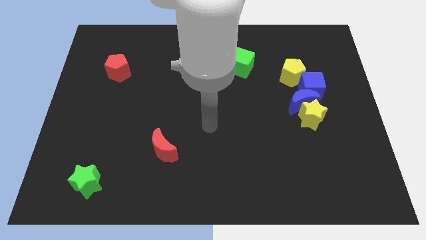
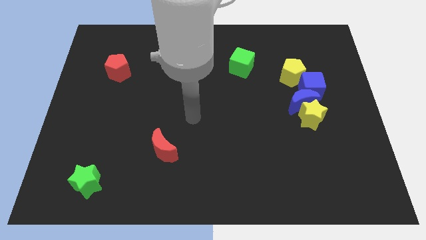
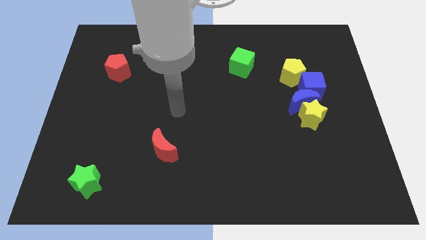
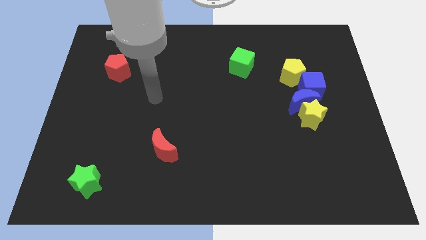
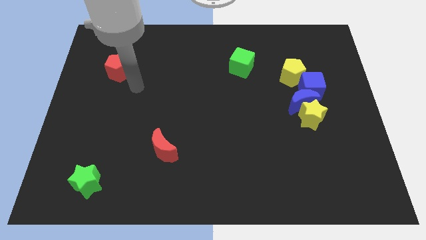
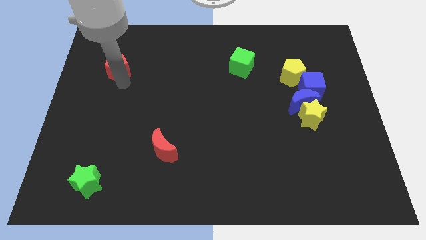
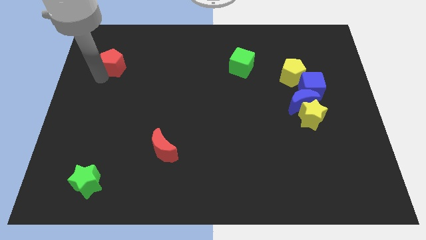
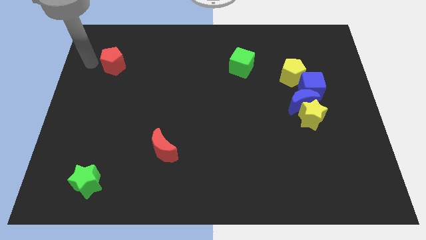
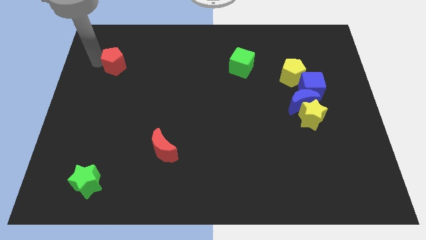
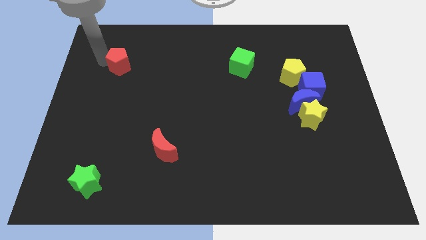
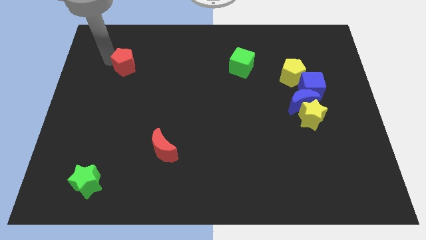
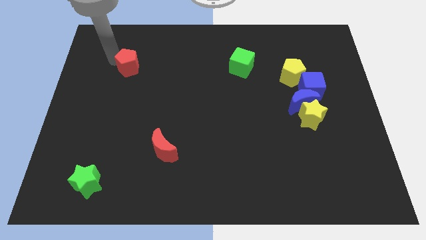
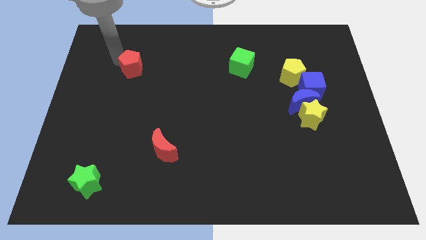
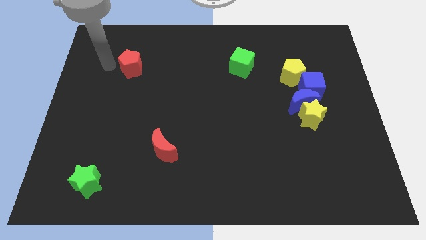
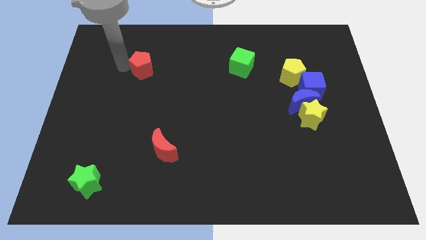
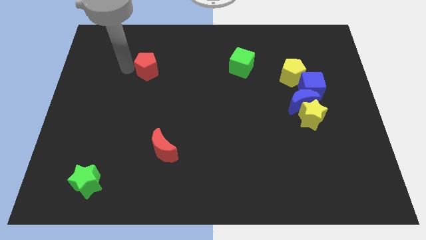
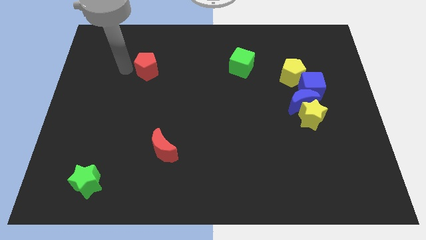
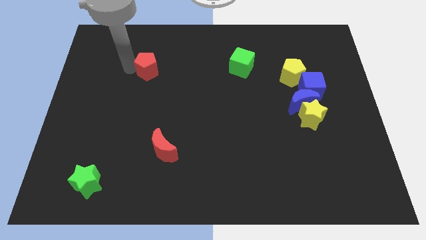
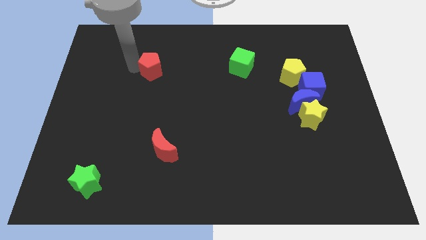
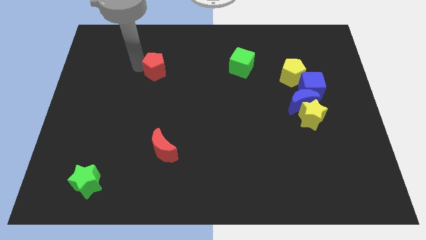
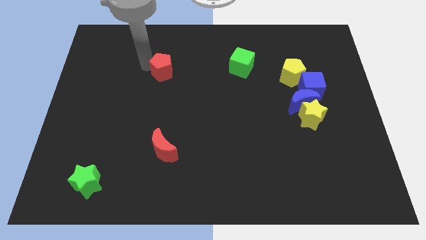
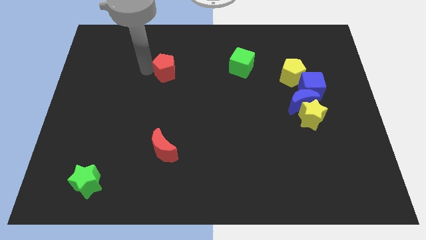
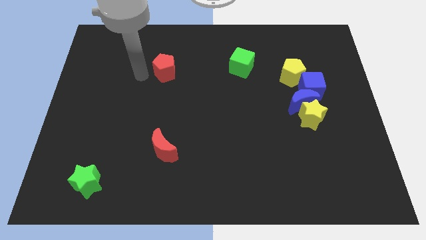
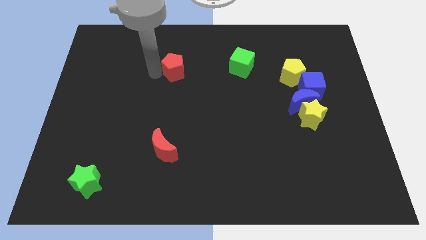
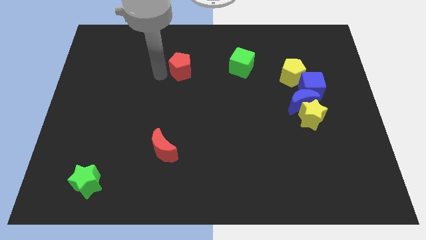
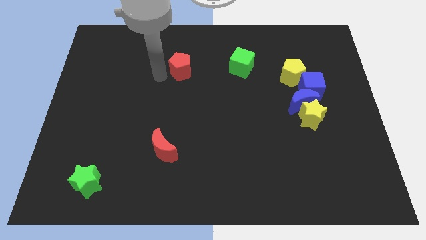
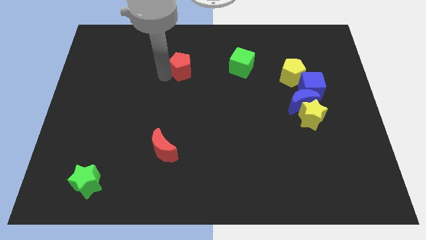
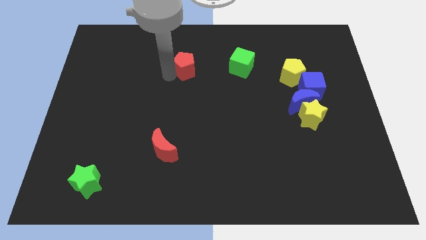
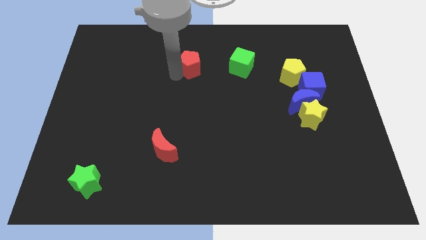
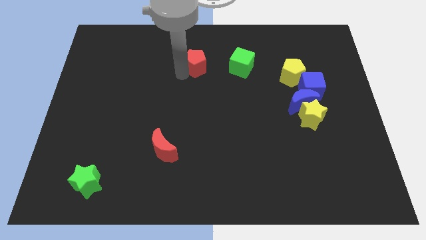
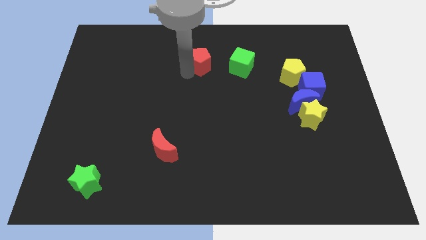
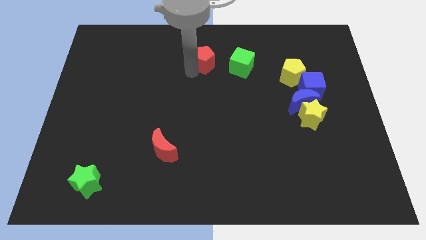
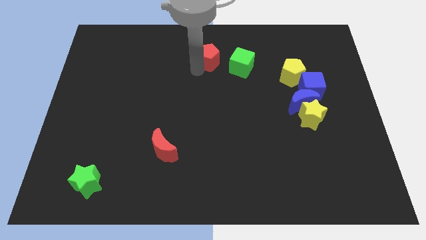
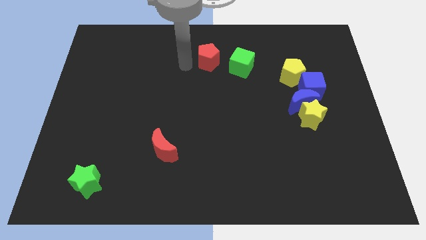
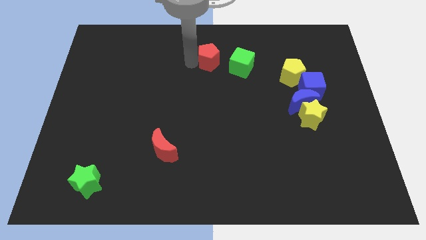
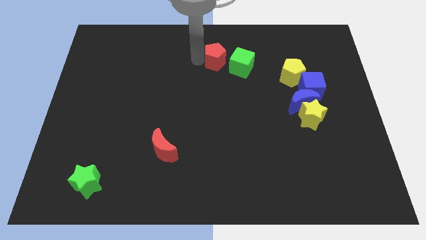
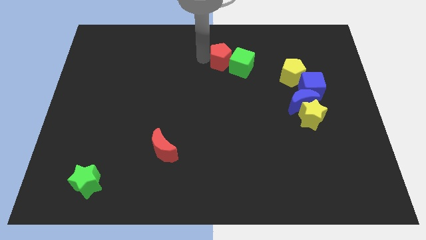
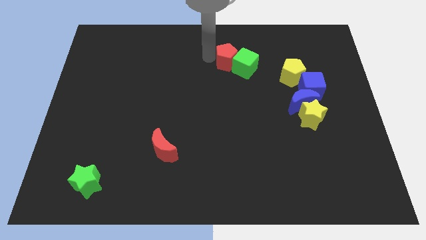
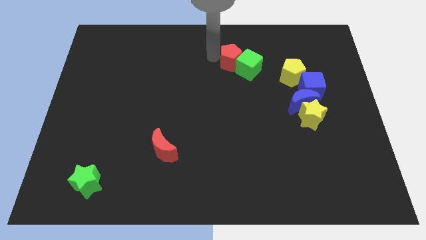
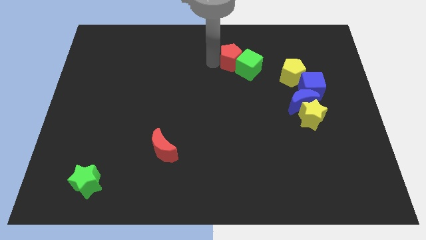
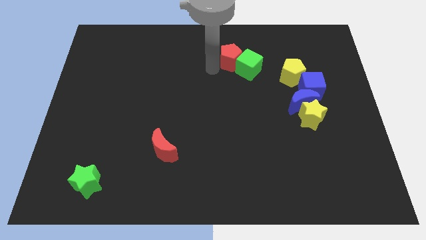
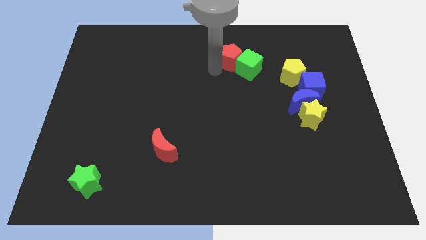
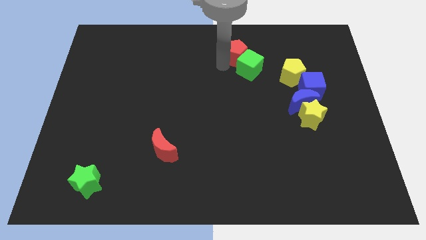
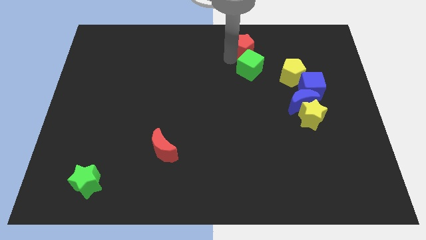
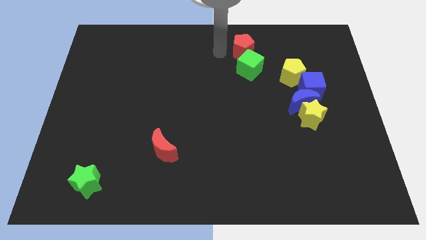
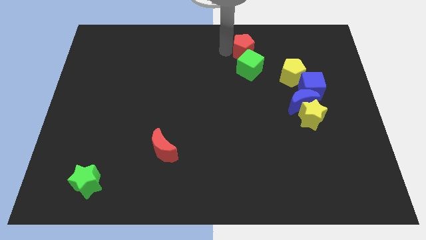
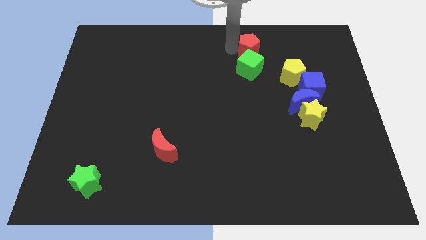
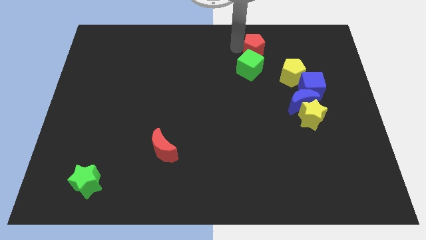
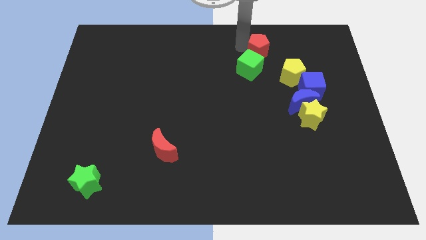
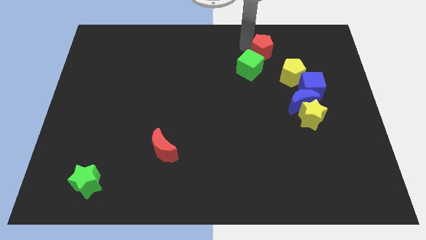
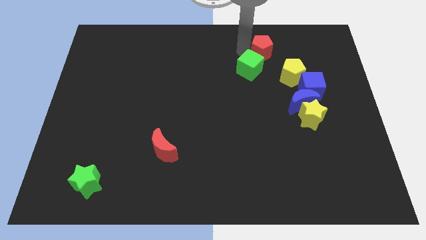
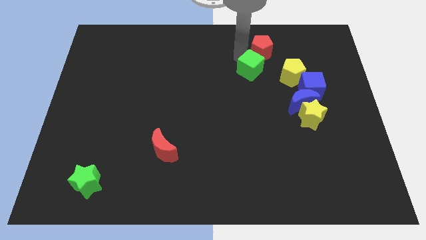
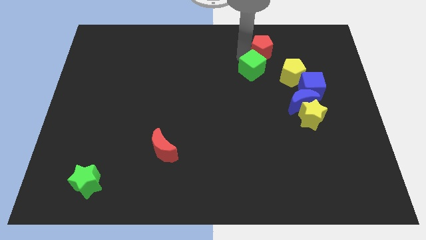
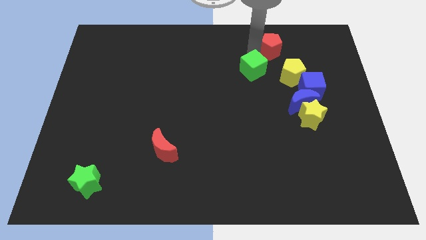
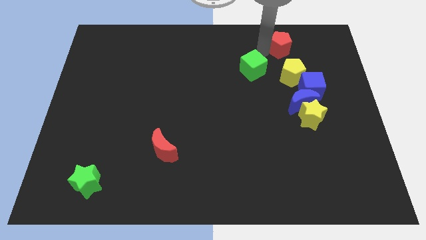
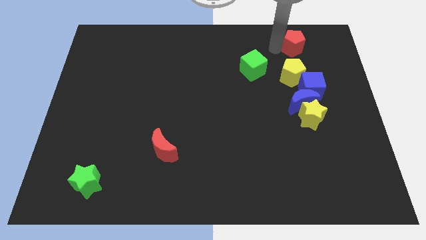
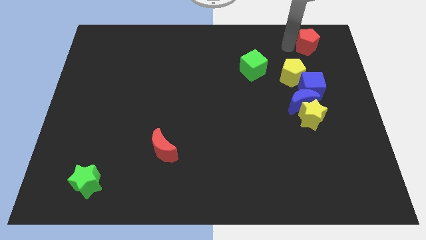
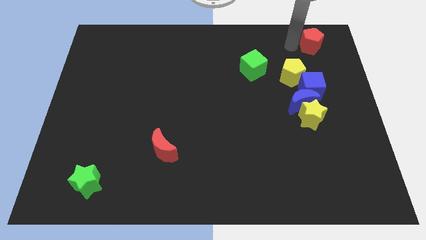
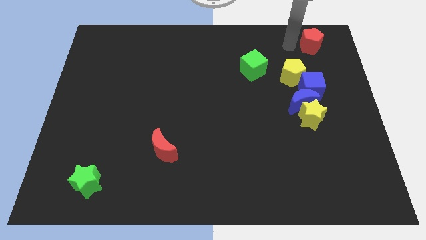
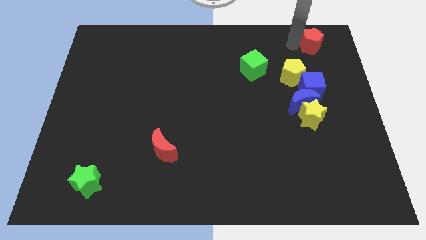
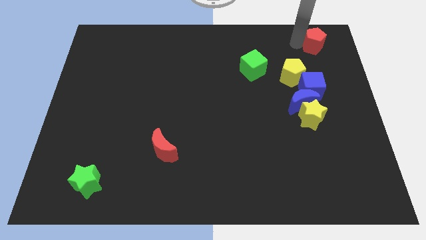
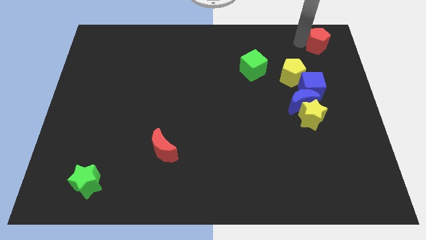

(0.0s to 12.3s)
put the red pentagon to the top right
